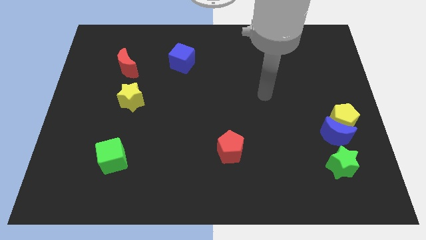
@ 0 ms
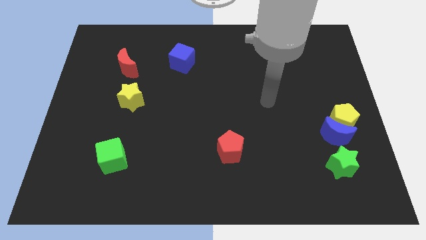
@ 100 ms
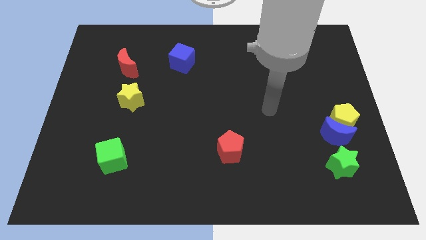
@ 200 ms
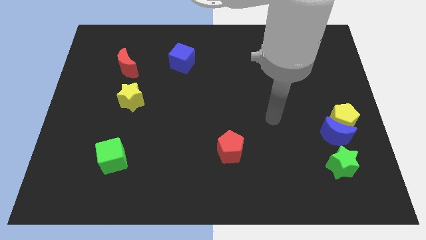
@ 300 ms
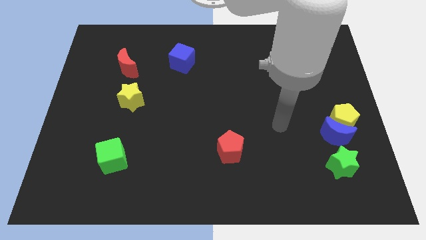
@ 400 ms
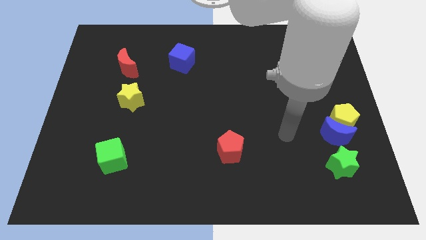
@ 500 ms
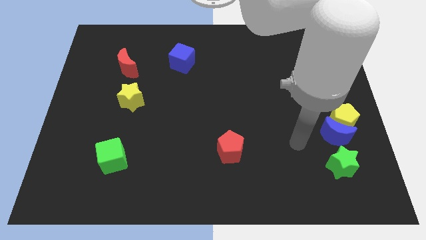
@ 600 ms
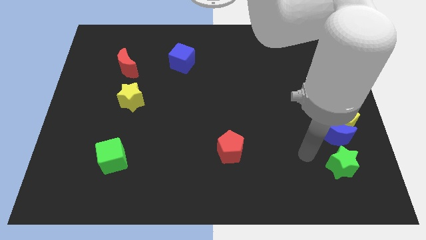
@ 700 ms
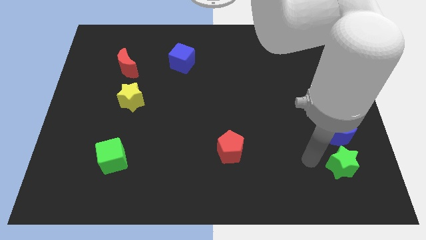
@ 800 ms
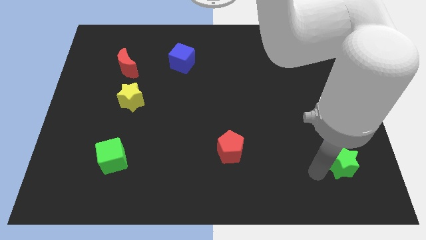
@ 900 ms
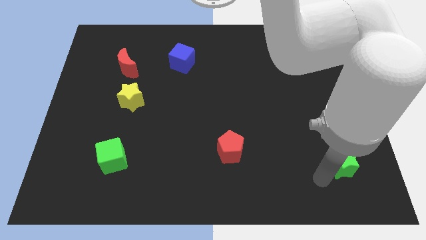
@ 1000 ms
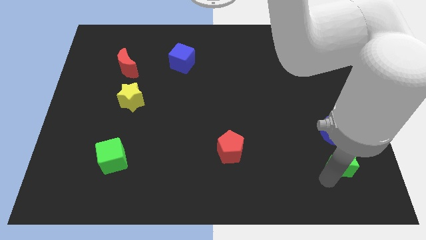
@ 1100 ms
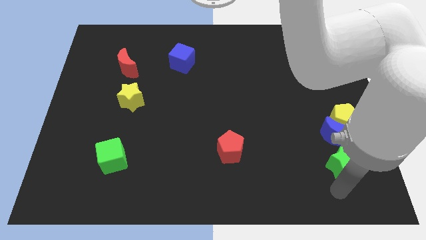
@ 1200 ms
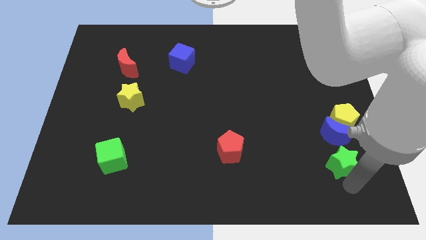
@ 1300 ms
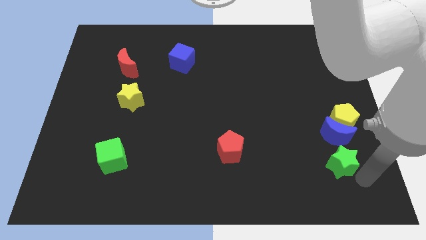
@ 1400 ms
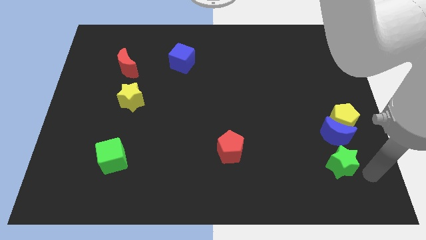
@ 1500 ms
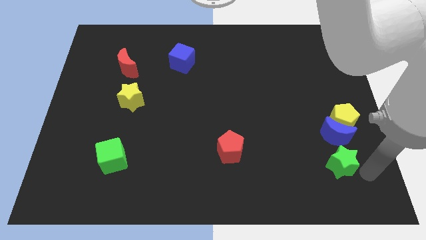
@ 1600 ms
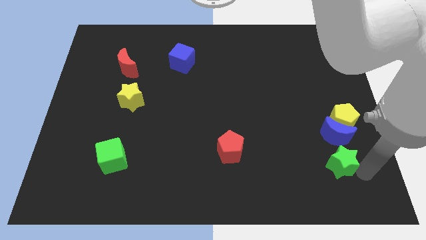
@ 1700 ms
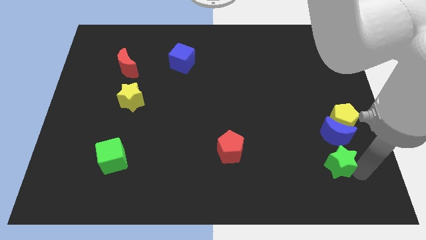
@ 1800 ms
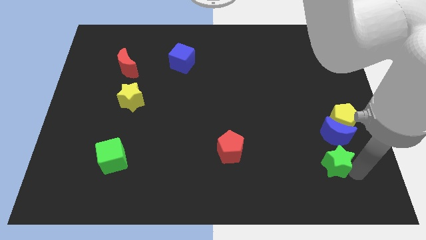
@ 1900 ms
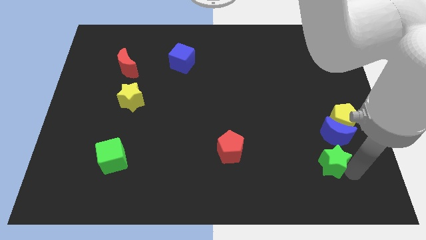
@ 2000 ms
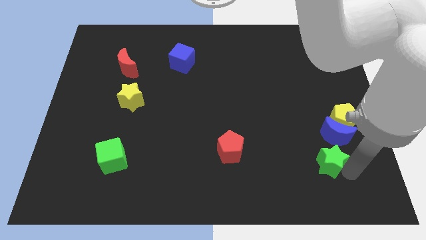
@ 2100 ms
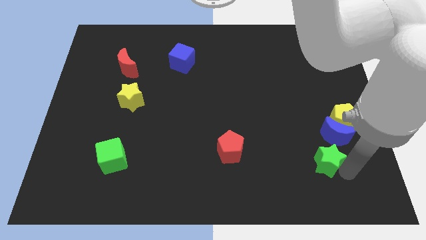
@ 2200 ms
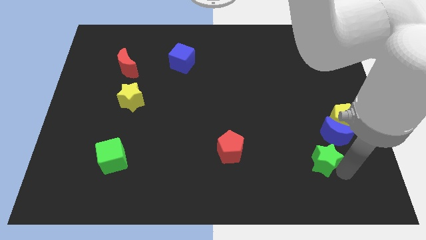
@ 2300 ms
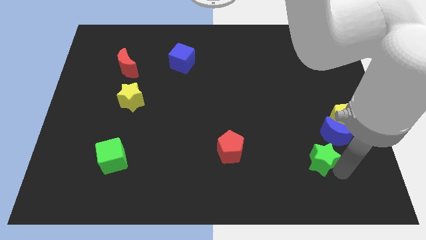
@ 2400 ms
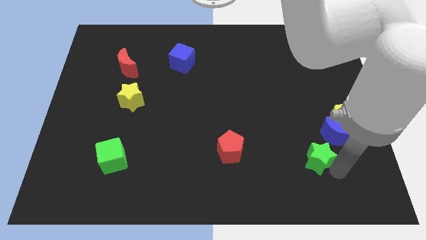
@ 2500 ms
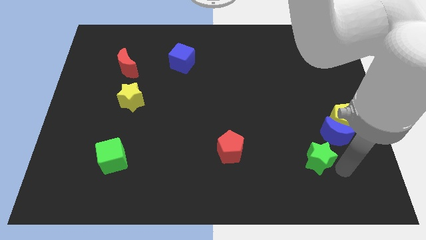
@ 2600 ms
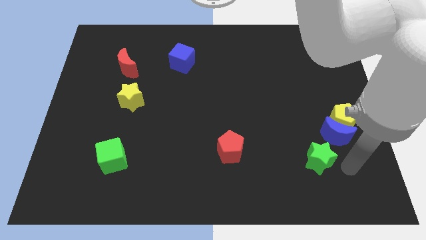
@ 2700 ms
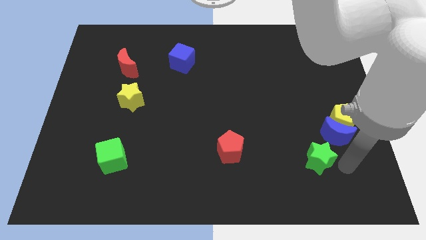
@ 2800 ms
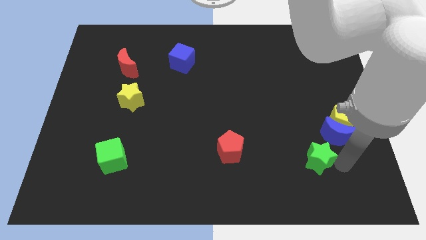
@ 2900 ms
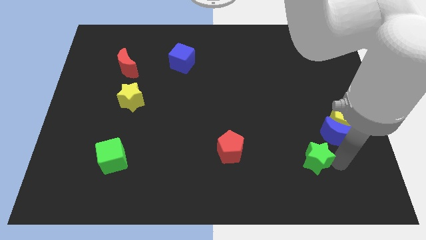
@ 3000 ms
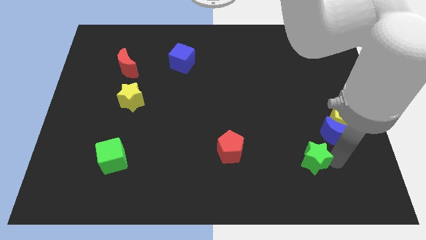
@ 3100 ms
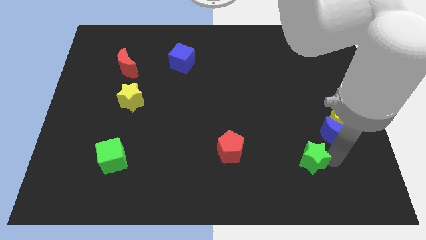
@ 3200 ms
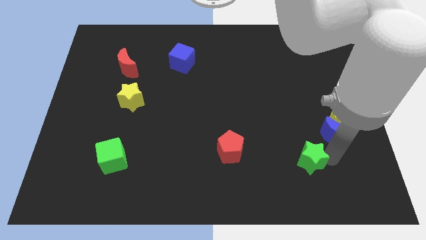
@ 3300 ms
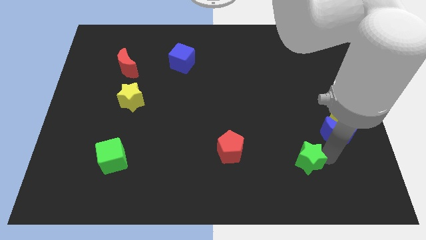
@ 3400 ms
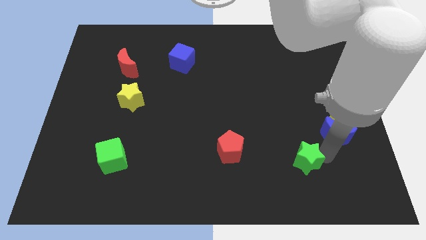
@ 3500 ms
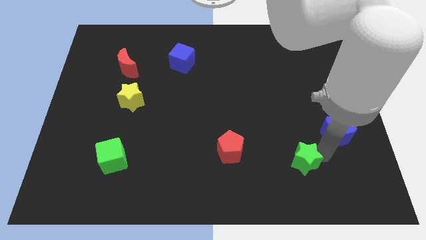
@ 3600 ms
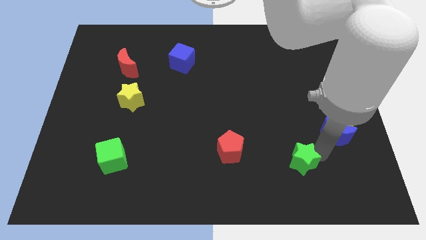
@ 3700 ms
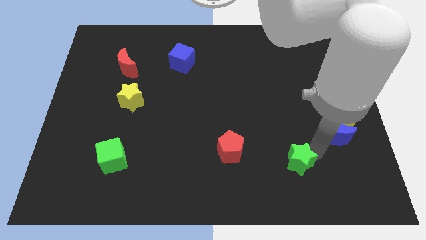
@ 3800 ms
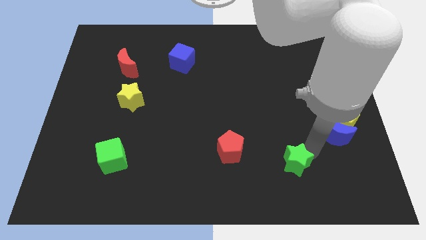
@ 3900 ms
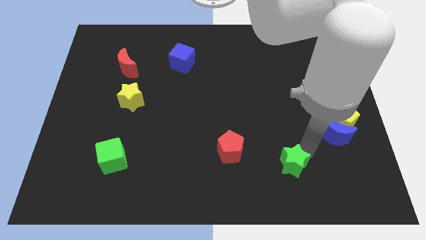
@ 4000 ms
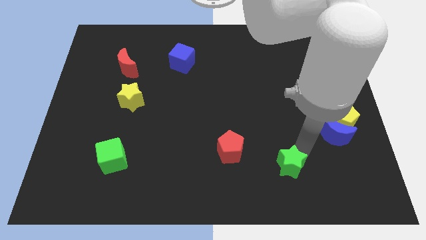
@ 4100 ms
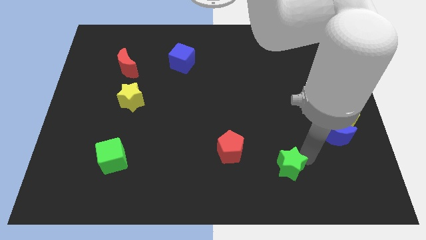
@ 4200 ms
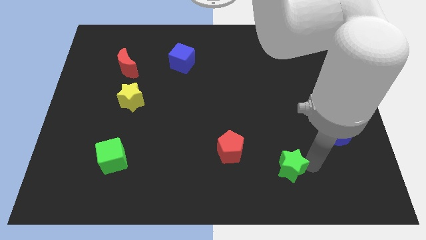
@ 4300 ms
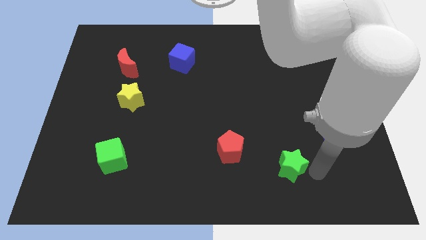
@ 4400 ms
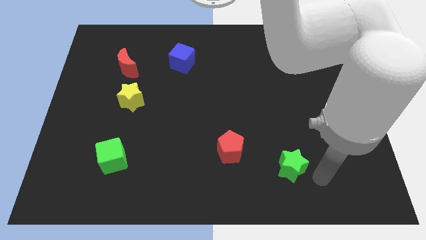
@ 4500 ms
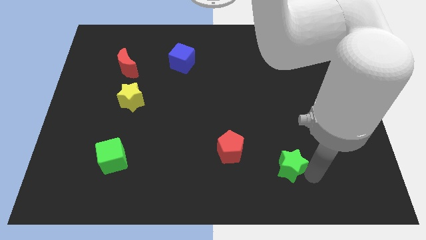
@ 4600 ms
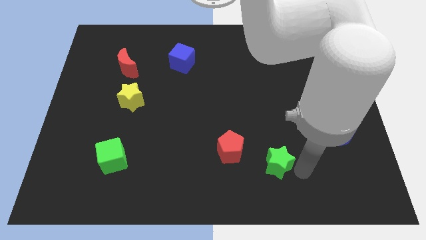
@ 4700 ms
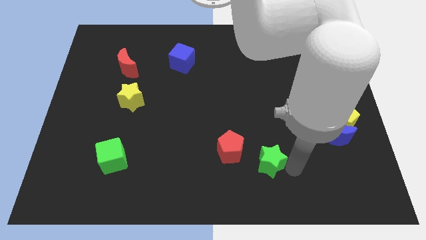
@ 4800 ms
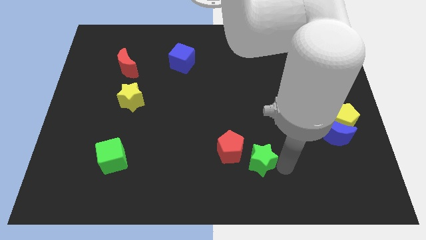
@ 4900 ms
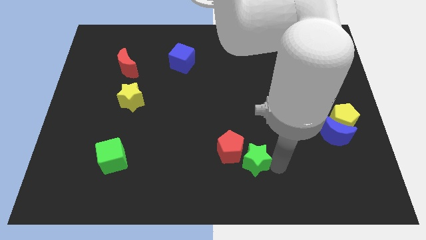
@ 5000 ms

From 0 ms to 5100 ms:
put the green star to the red pentagon

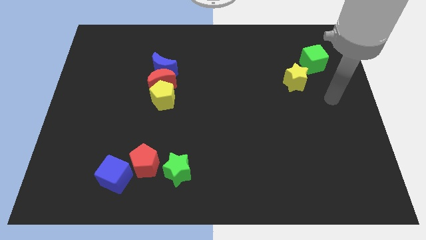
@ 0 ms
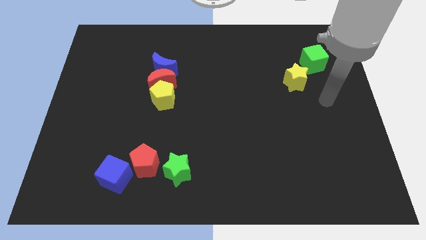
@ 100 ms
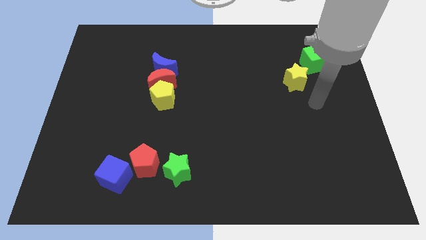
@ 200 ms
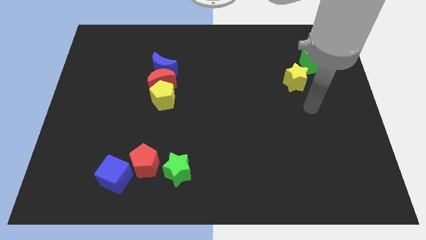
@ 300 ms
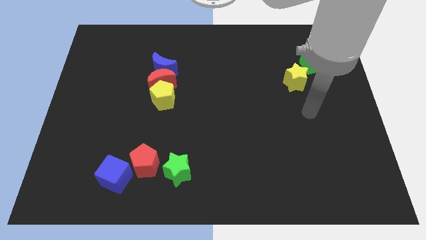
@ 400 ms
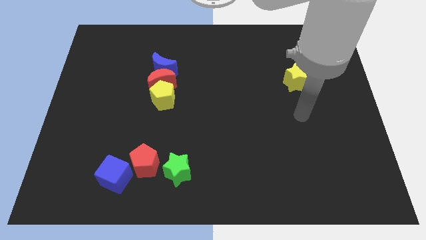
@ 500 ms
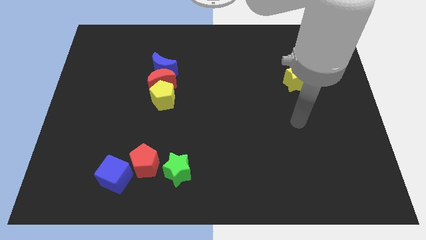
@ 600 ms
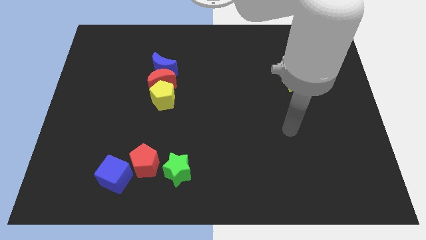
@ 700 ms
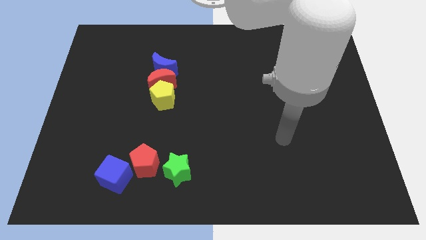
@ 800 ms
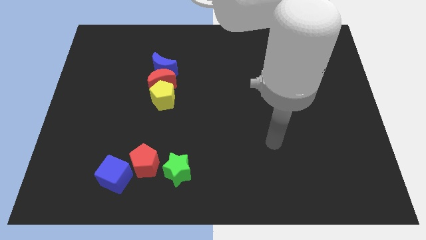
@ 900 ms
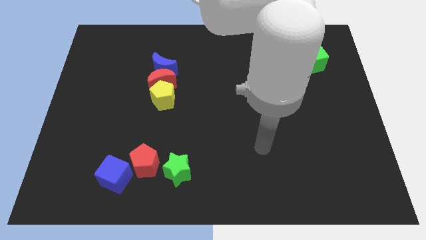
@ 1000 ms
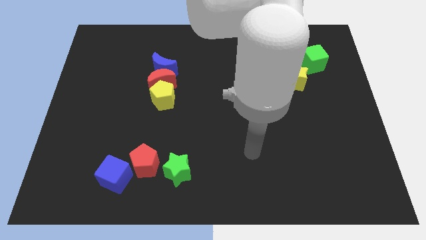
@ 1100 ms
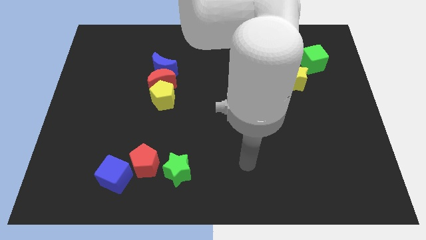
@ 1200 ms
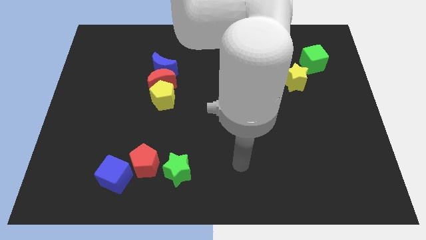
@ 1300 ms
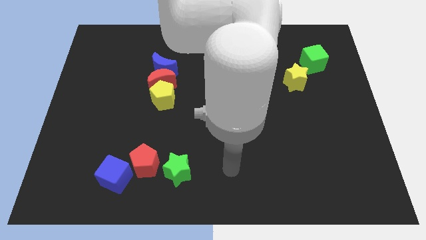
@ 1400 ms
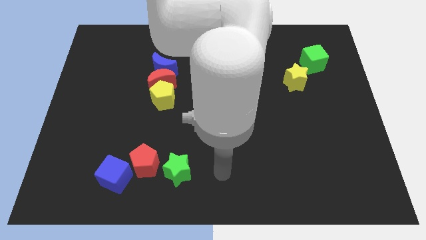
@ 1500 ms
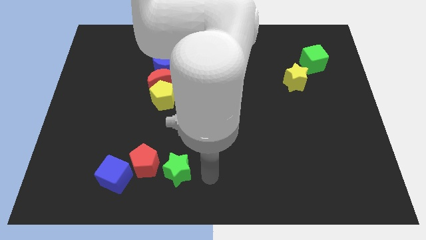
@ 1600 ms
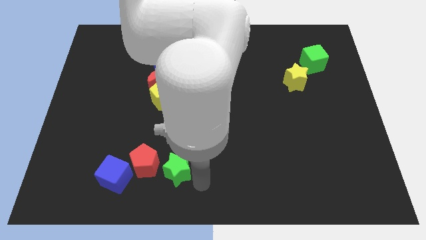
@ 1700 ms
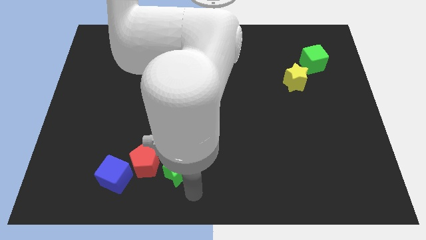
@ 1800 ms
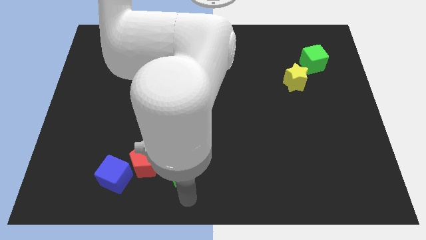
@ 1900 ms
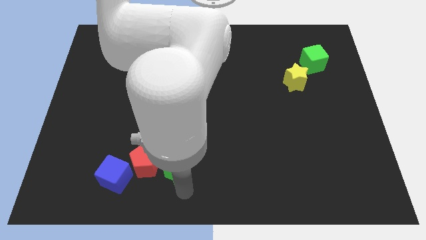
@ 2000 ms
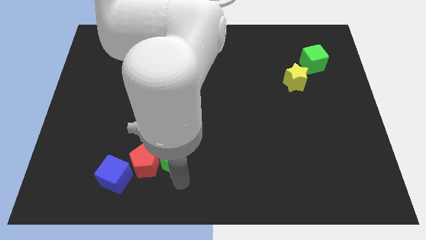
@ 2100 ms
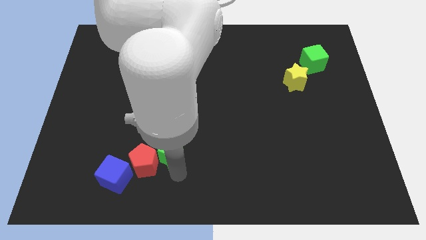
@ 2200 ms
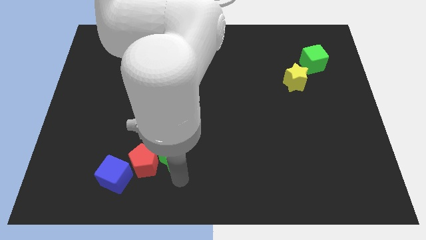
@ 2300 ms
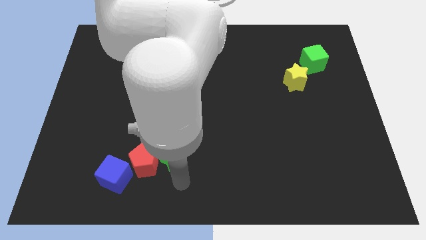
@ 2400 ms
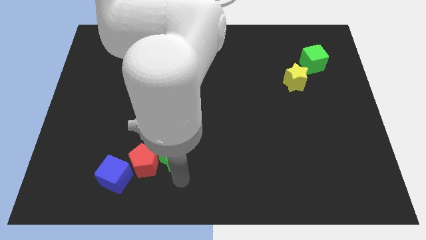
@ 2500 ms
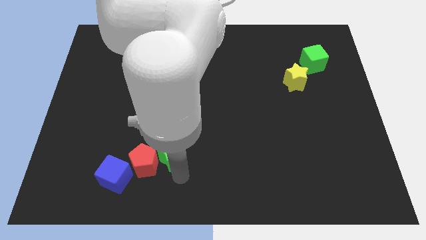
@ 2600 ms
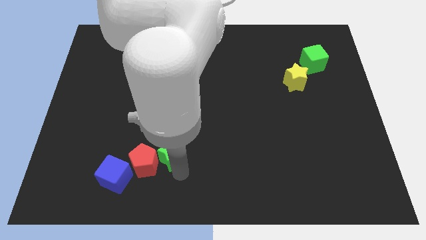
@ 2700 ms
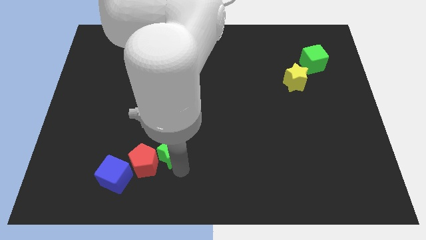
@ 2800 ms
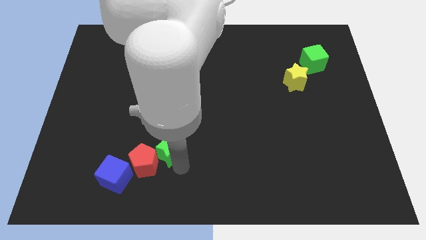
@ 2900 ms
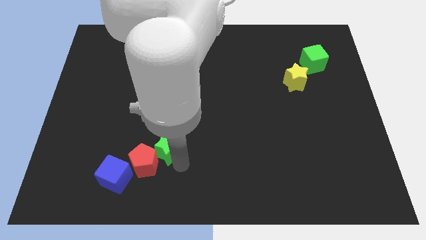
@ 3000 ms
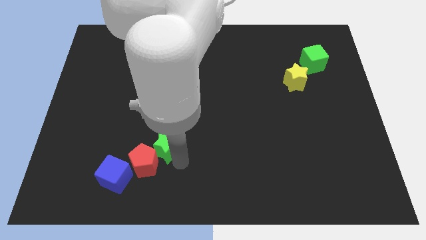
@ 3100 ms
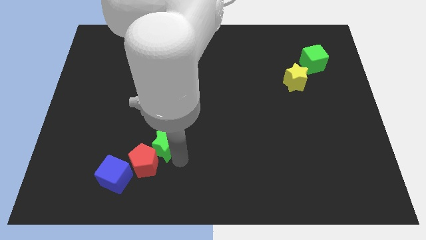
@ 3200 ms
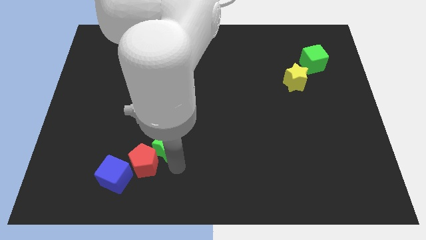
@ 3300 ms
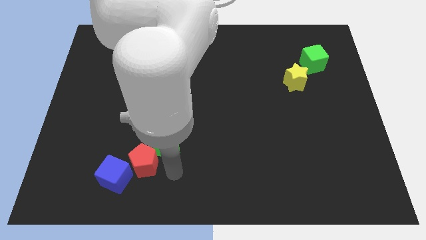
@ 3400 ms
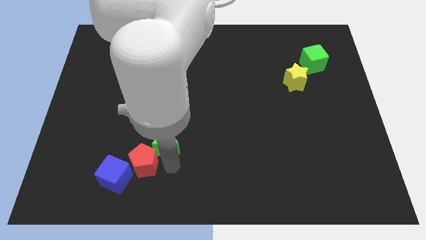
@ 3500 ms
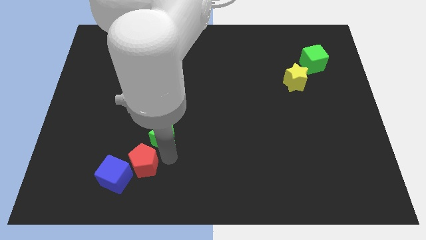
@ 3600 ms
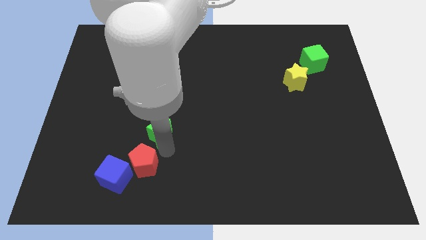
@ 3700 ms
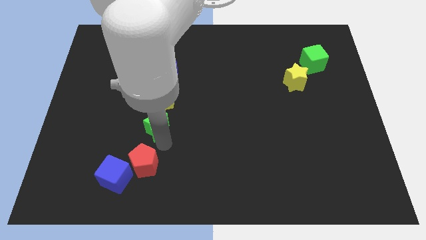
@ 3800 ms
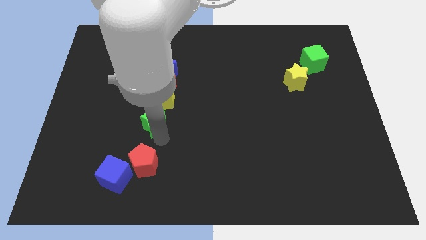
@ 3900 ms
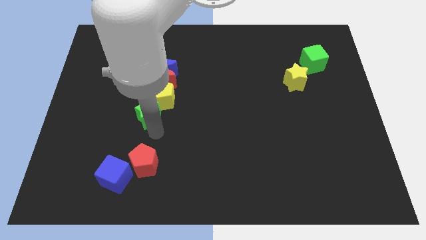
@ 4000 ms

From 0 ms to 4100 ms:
move the green star towards the yellow pentagon
